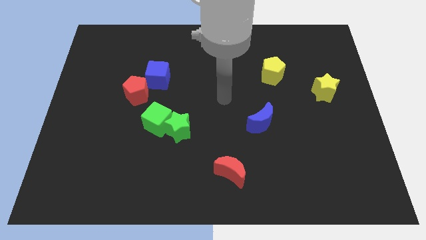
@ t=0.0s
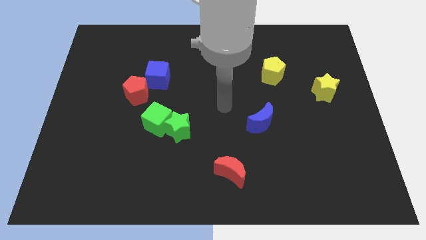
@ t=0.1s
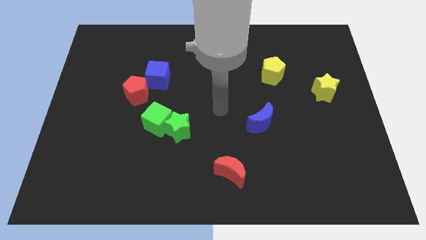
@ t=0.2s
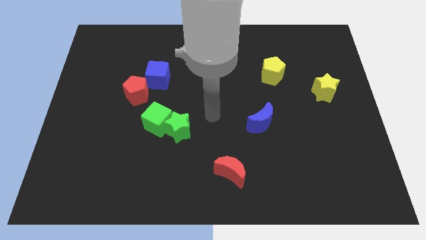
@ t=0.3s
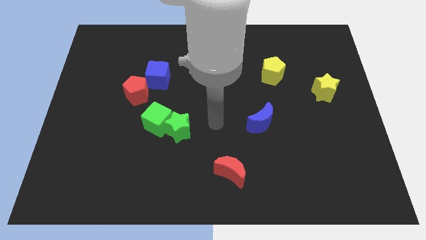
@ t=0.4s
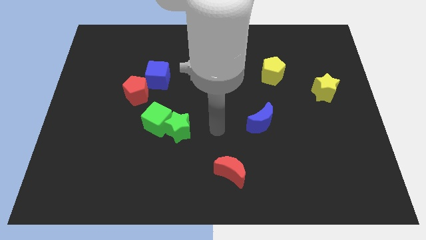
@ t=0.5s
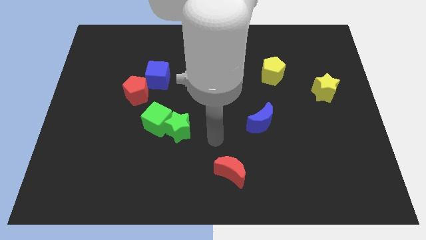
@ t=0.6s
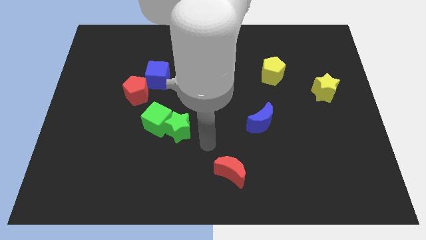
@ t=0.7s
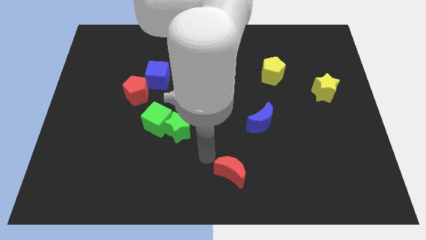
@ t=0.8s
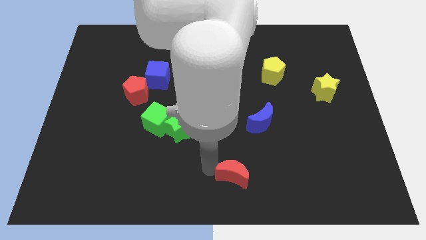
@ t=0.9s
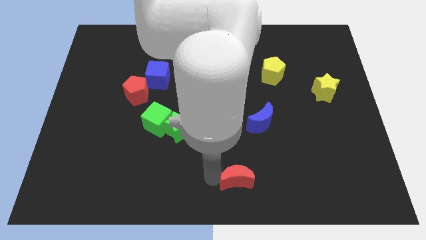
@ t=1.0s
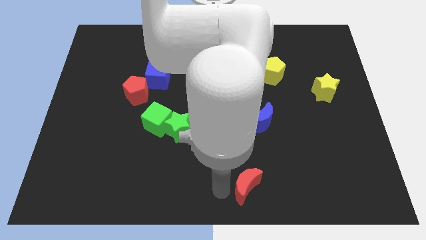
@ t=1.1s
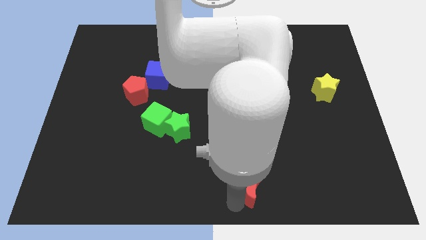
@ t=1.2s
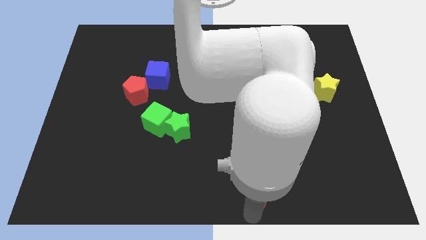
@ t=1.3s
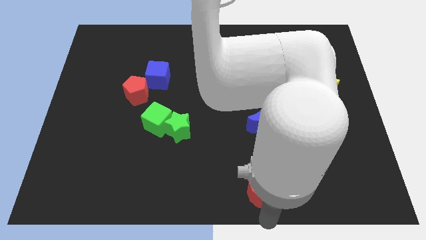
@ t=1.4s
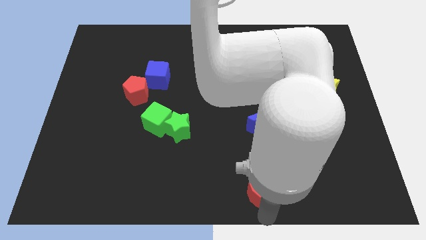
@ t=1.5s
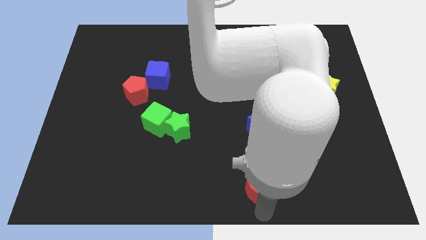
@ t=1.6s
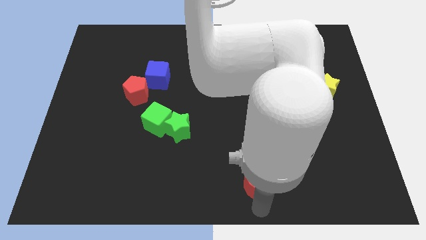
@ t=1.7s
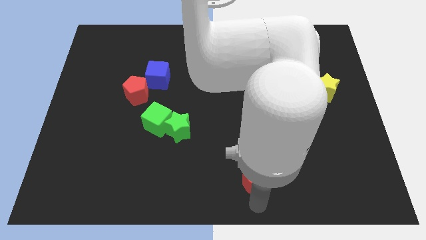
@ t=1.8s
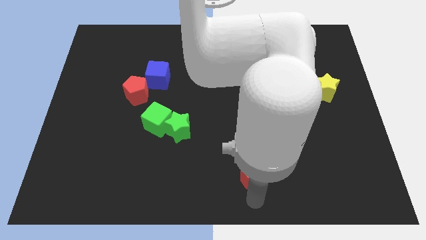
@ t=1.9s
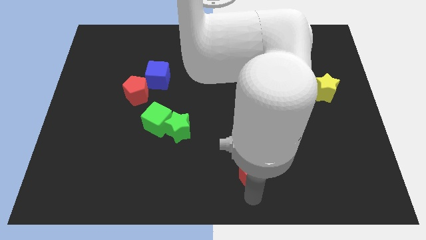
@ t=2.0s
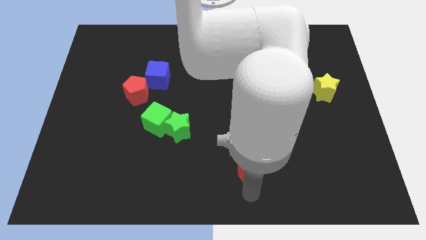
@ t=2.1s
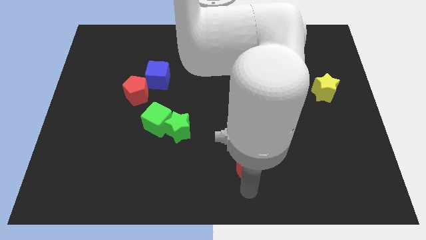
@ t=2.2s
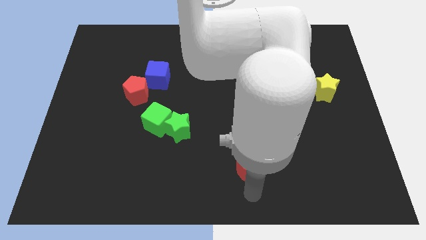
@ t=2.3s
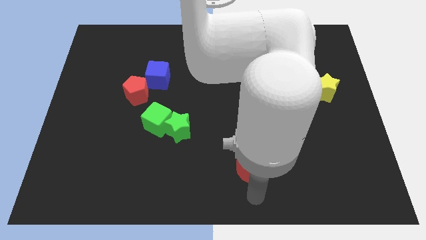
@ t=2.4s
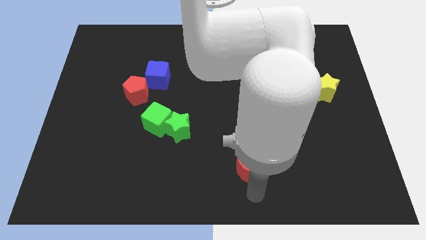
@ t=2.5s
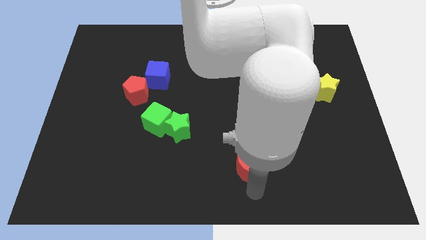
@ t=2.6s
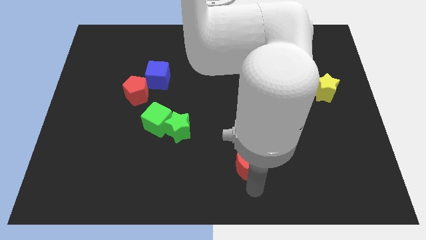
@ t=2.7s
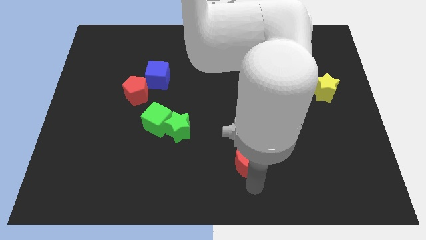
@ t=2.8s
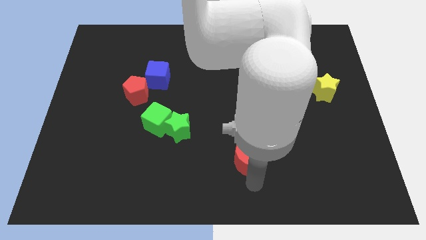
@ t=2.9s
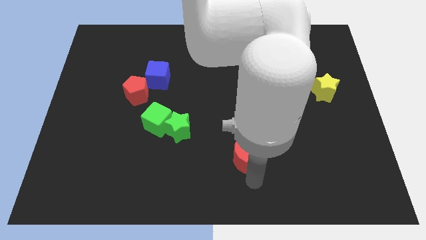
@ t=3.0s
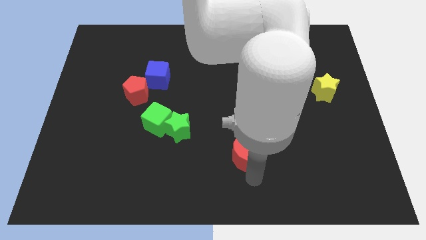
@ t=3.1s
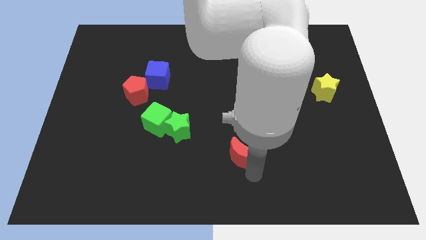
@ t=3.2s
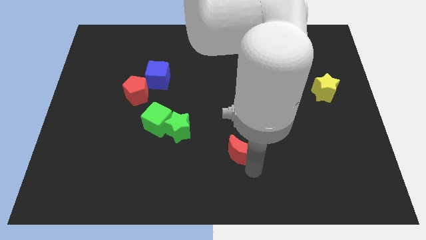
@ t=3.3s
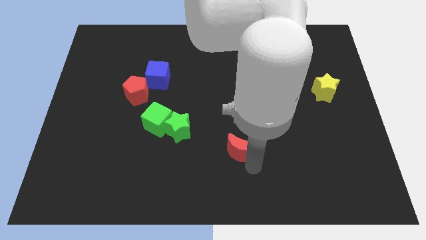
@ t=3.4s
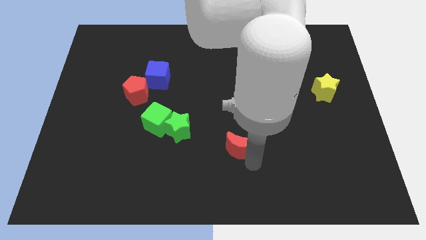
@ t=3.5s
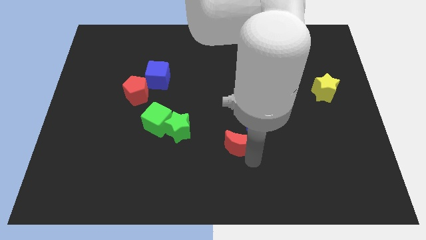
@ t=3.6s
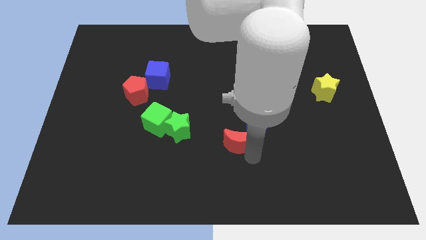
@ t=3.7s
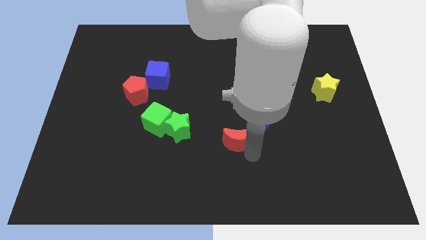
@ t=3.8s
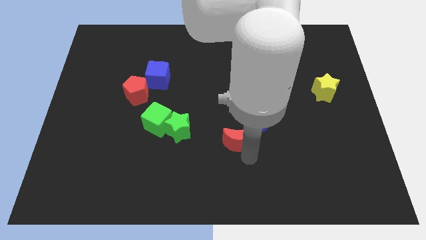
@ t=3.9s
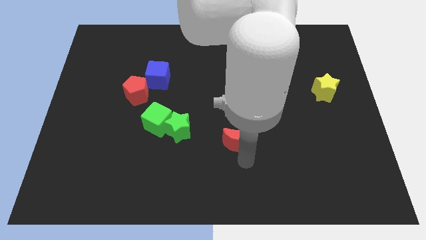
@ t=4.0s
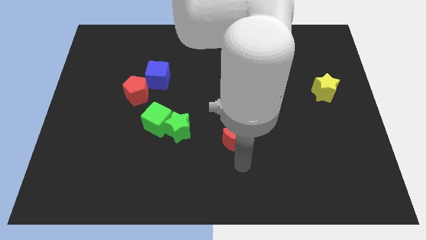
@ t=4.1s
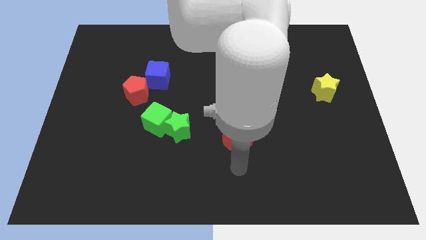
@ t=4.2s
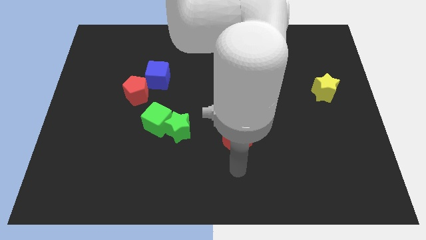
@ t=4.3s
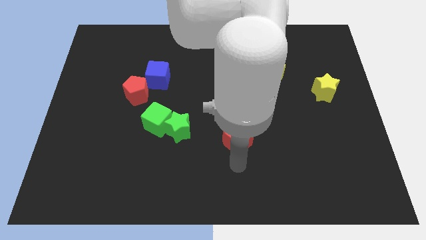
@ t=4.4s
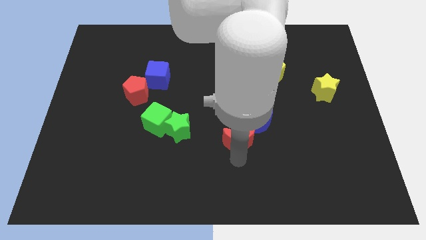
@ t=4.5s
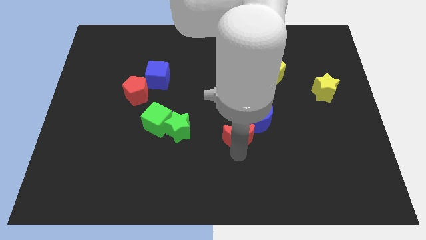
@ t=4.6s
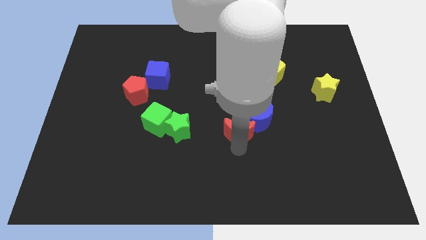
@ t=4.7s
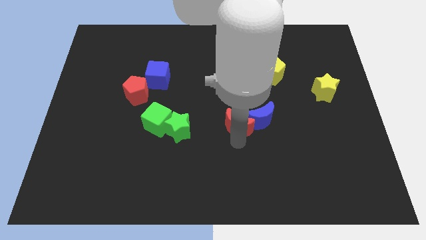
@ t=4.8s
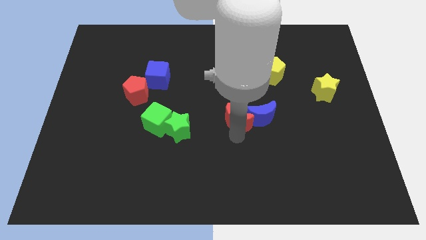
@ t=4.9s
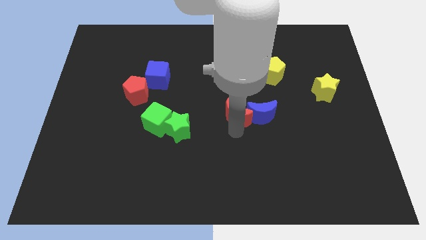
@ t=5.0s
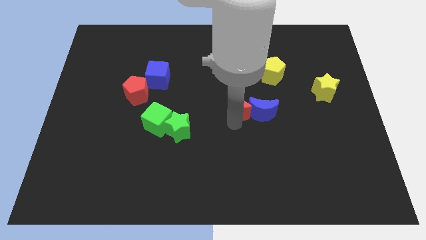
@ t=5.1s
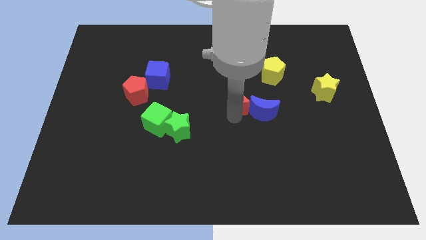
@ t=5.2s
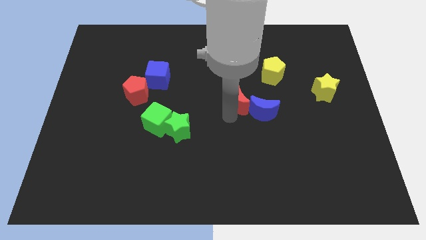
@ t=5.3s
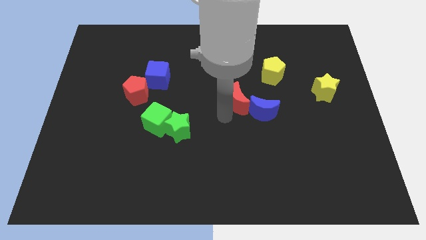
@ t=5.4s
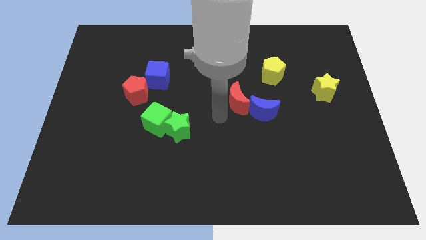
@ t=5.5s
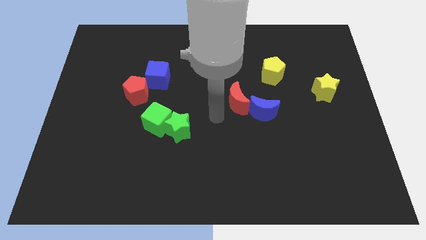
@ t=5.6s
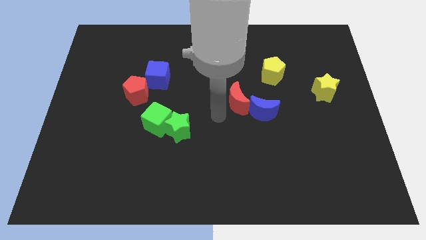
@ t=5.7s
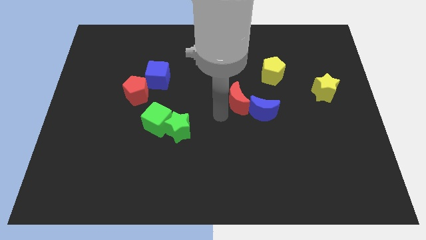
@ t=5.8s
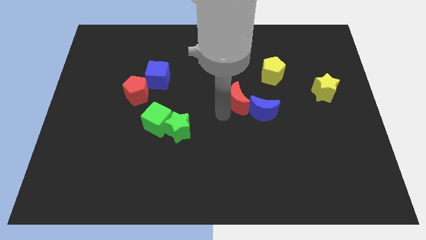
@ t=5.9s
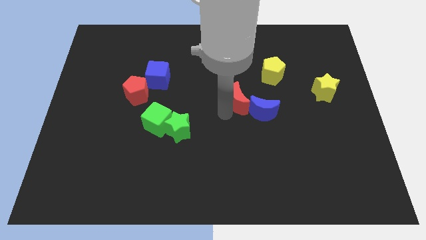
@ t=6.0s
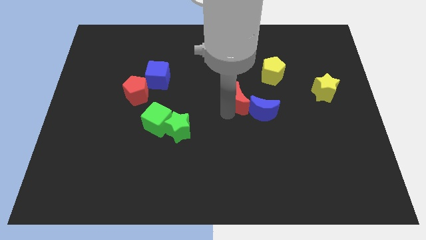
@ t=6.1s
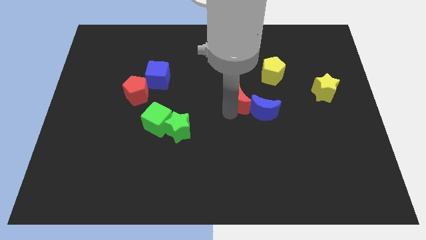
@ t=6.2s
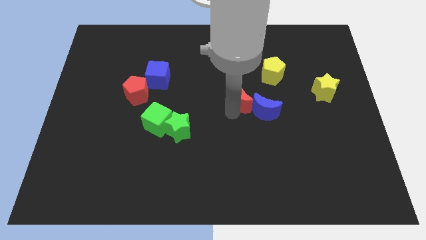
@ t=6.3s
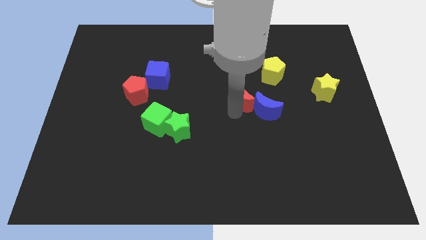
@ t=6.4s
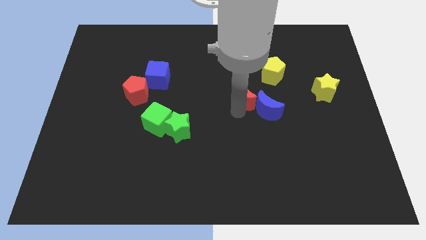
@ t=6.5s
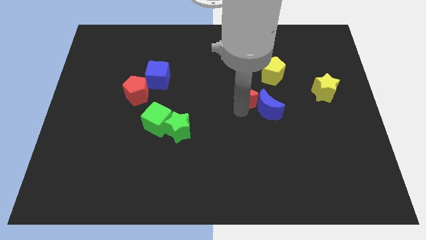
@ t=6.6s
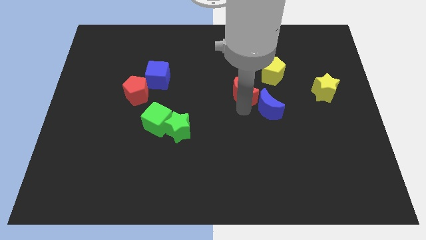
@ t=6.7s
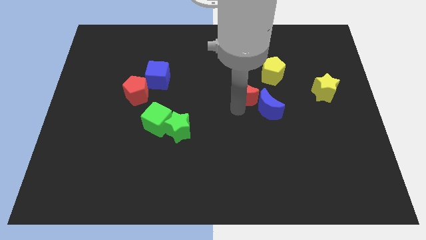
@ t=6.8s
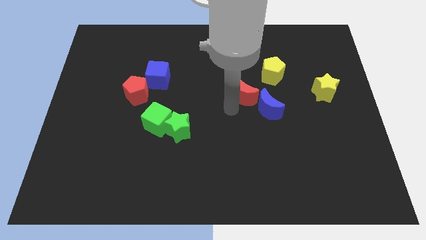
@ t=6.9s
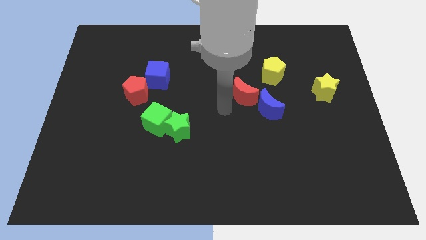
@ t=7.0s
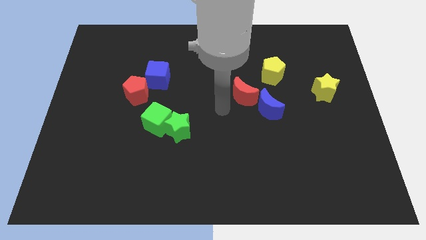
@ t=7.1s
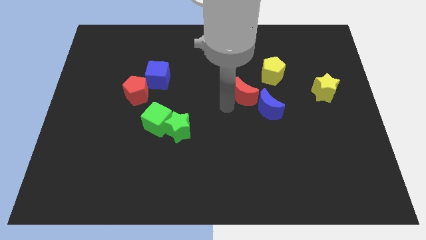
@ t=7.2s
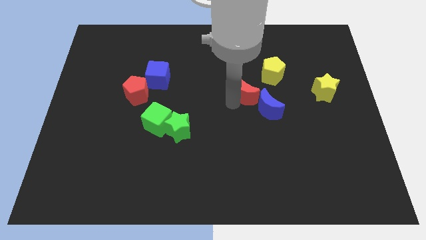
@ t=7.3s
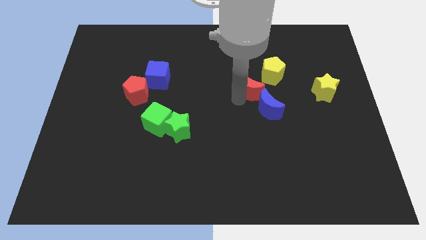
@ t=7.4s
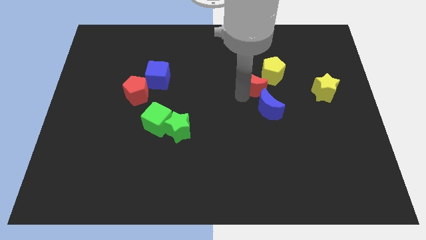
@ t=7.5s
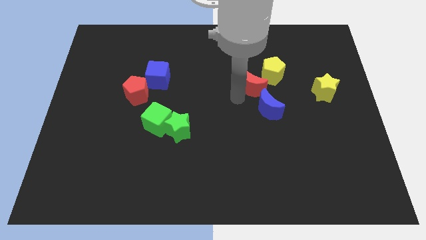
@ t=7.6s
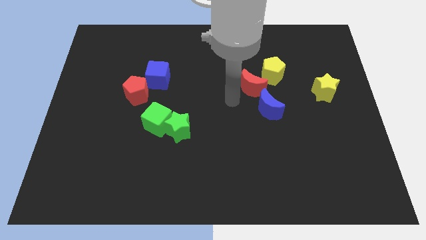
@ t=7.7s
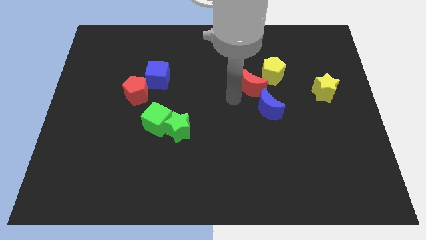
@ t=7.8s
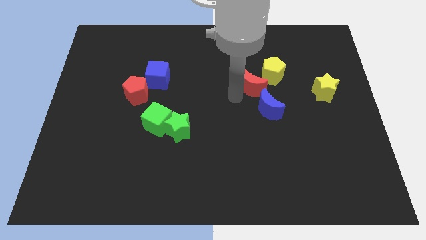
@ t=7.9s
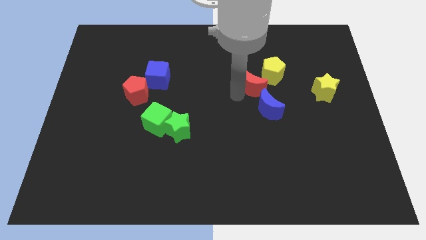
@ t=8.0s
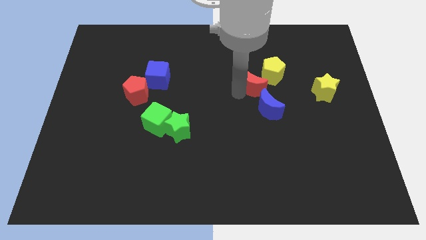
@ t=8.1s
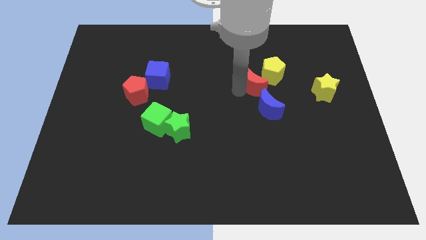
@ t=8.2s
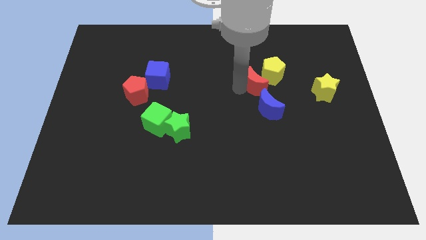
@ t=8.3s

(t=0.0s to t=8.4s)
push the red moon towards the yellow pentagon
